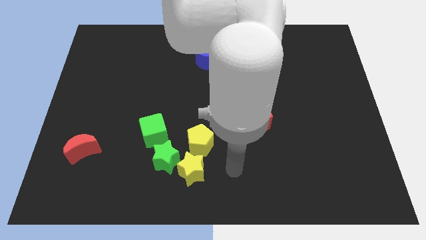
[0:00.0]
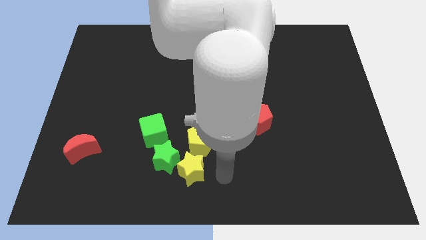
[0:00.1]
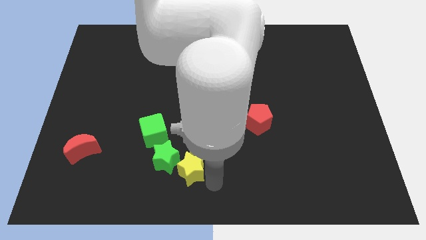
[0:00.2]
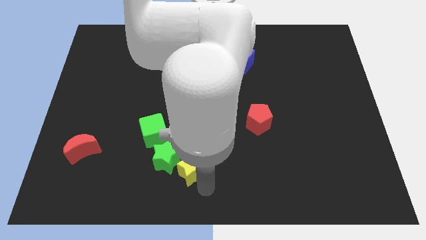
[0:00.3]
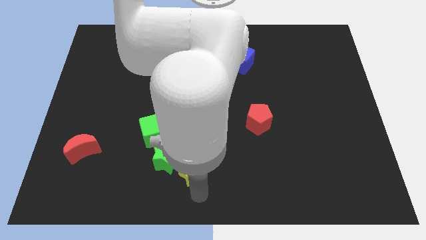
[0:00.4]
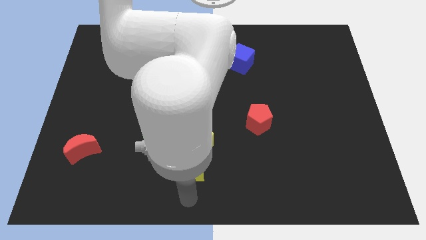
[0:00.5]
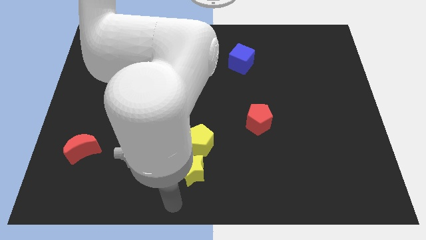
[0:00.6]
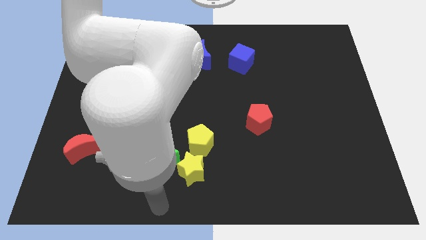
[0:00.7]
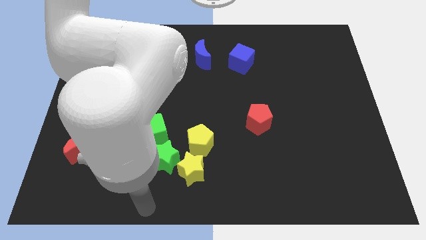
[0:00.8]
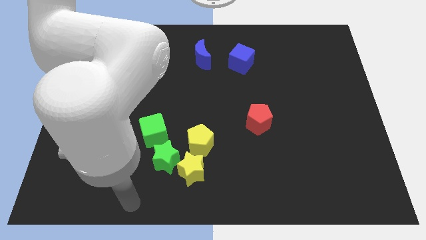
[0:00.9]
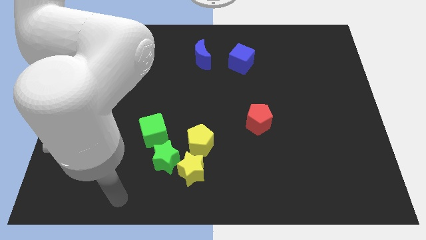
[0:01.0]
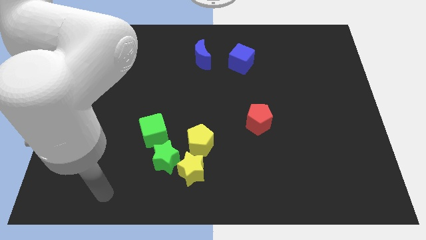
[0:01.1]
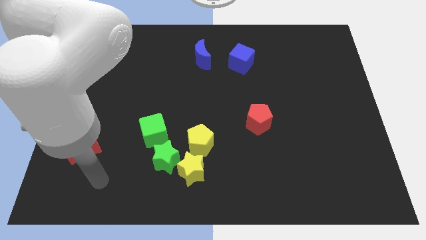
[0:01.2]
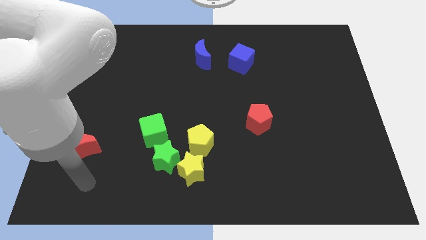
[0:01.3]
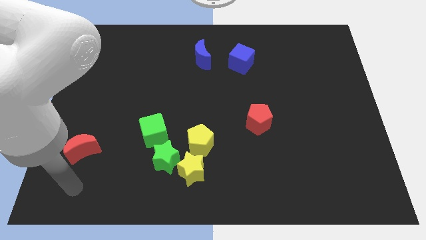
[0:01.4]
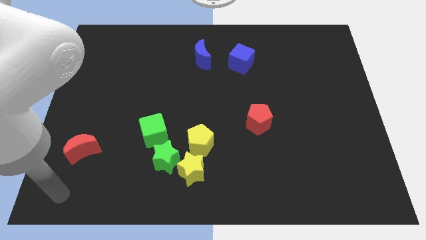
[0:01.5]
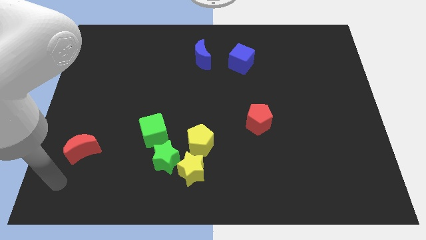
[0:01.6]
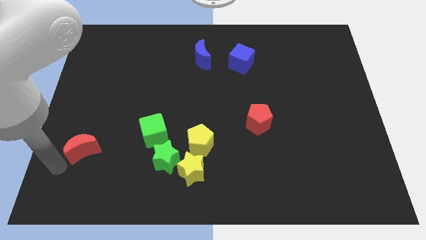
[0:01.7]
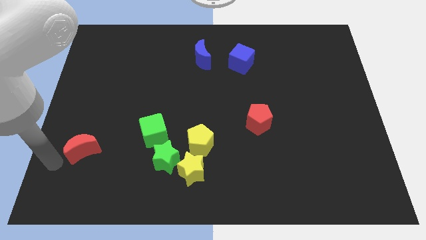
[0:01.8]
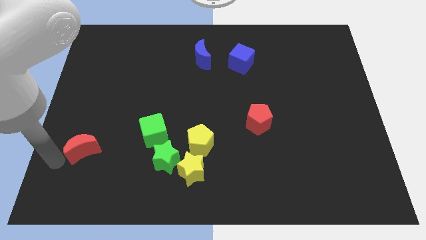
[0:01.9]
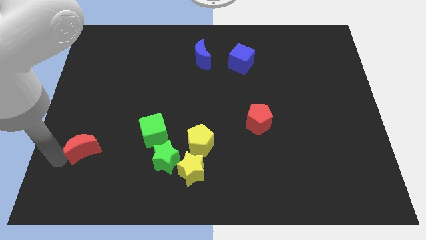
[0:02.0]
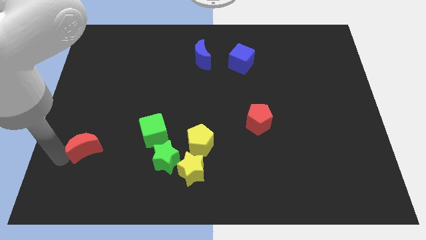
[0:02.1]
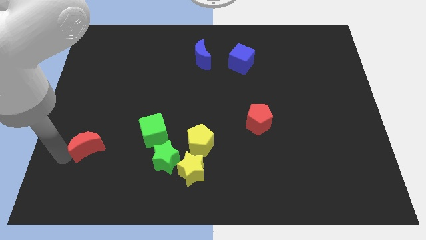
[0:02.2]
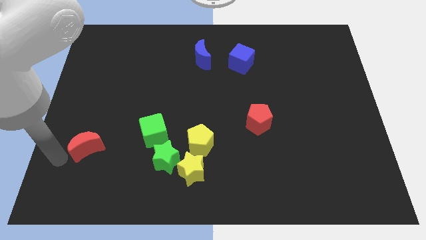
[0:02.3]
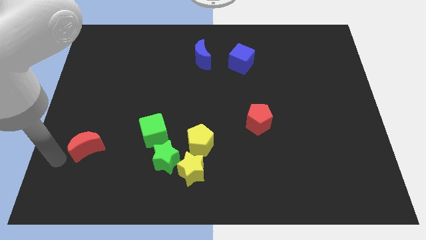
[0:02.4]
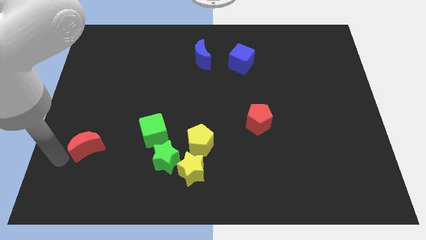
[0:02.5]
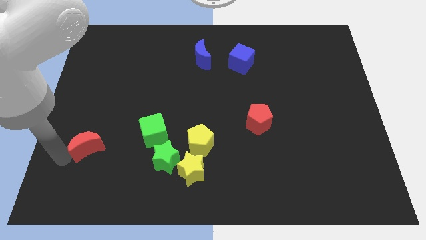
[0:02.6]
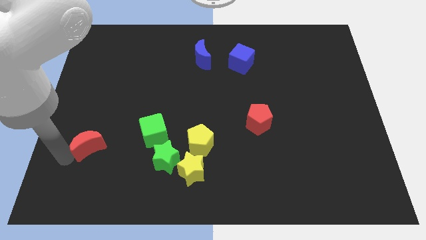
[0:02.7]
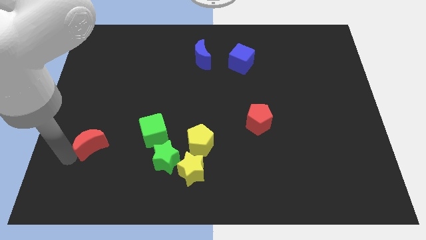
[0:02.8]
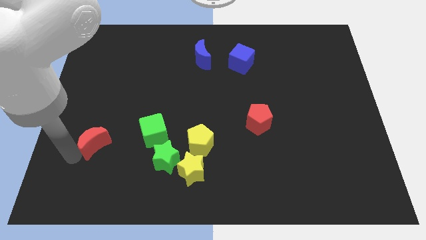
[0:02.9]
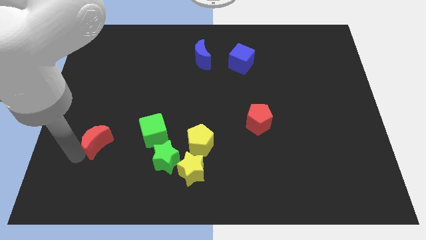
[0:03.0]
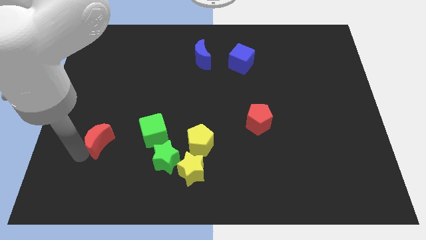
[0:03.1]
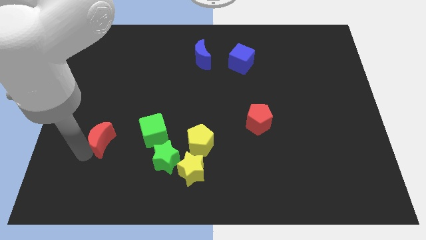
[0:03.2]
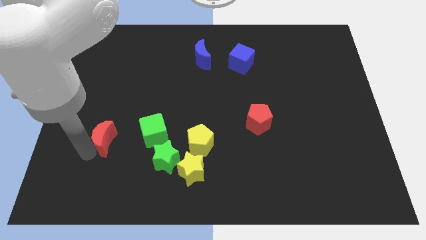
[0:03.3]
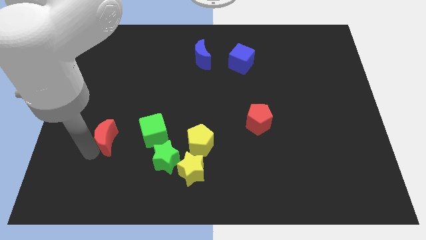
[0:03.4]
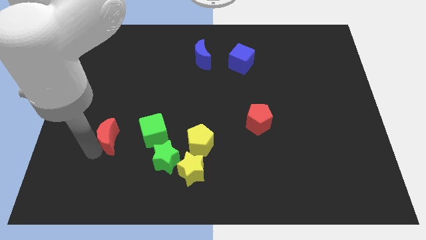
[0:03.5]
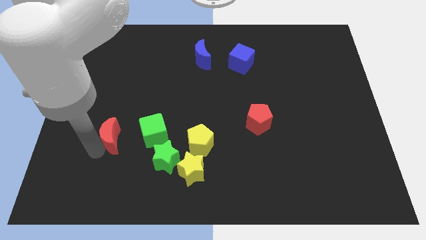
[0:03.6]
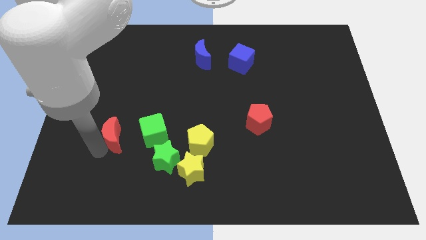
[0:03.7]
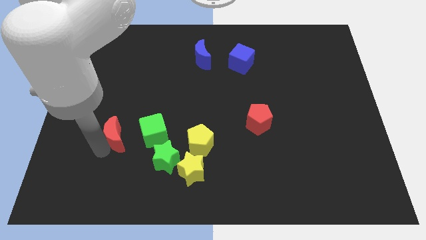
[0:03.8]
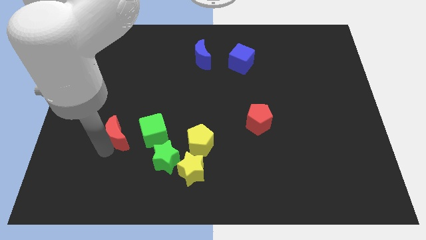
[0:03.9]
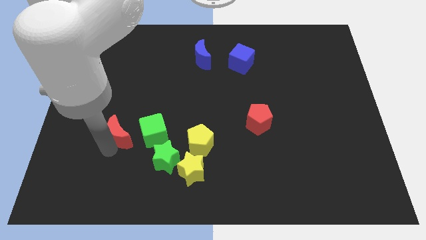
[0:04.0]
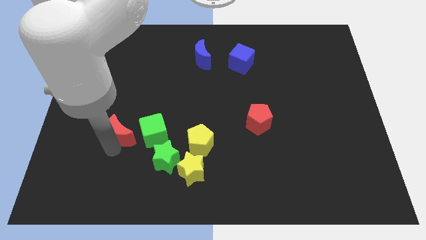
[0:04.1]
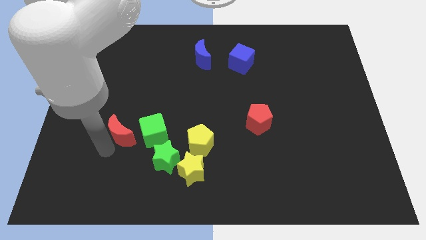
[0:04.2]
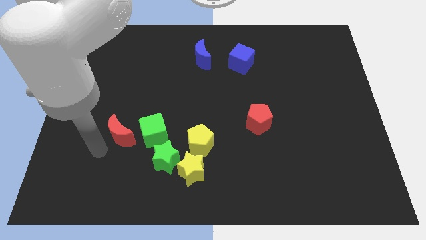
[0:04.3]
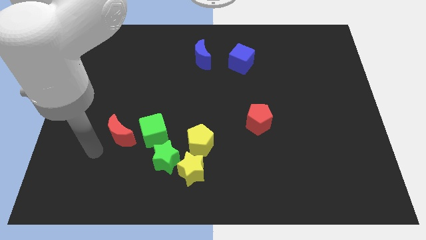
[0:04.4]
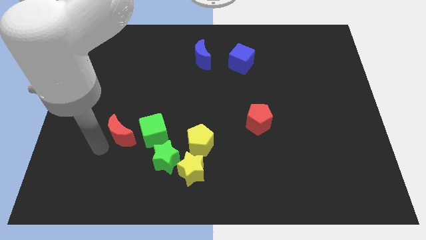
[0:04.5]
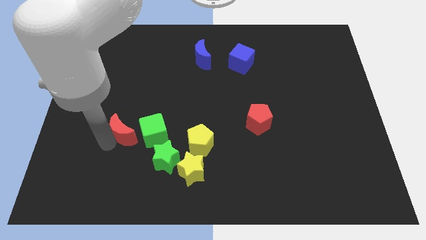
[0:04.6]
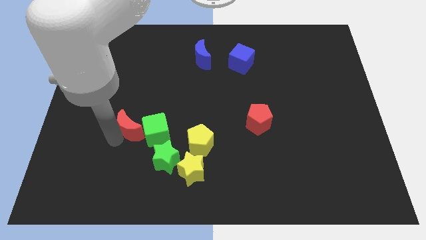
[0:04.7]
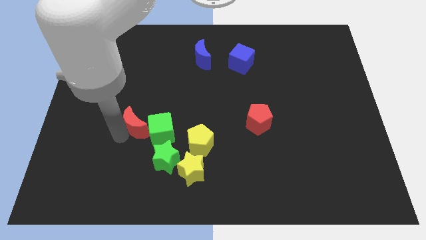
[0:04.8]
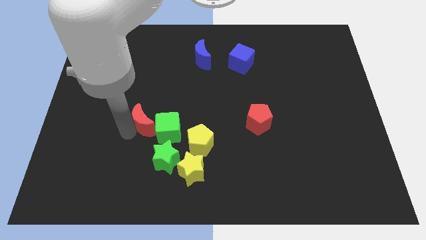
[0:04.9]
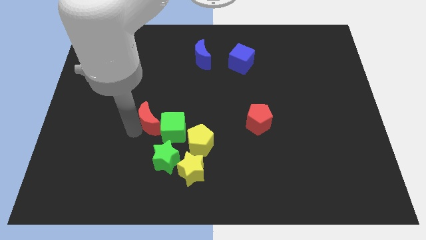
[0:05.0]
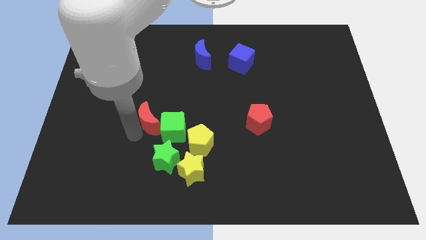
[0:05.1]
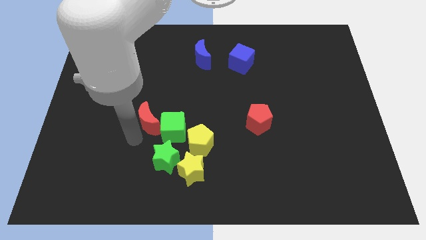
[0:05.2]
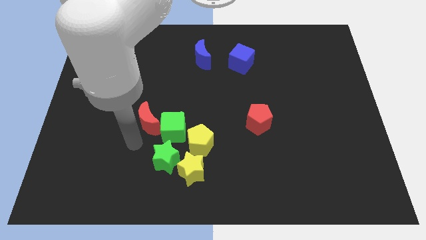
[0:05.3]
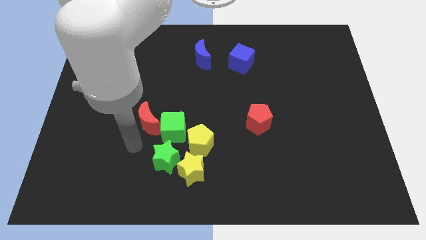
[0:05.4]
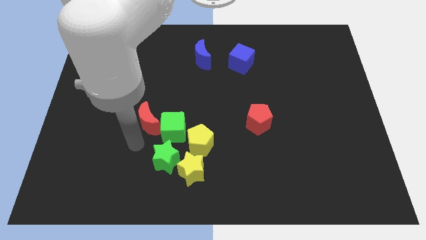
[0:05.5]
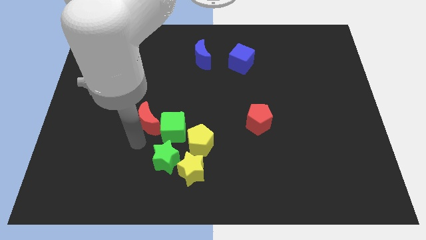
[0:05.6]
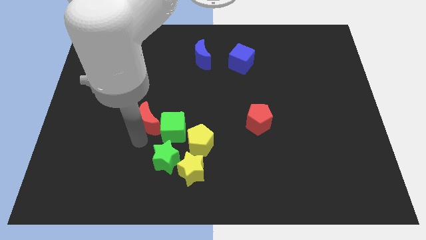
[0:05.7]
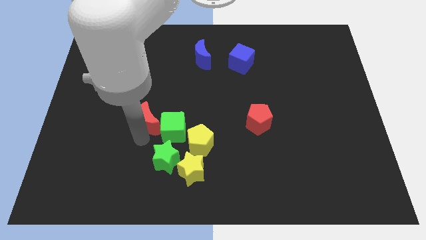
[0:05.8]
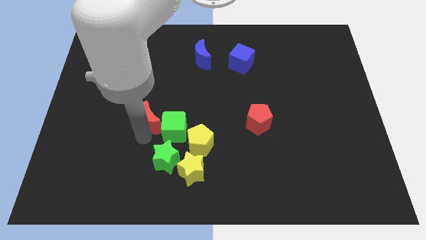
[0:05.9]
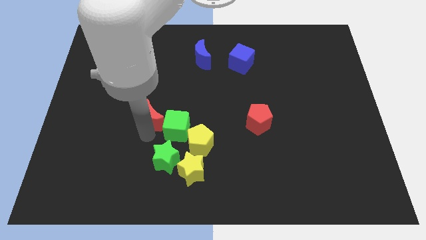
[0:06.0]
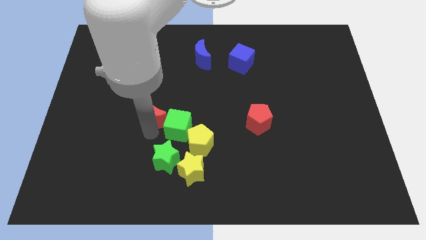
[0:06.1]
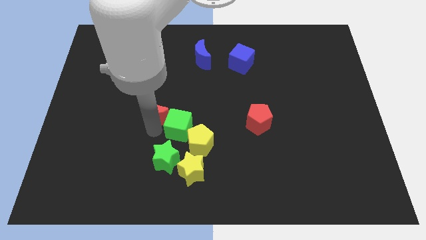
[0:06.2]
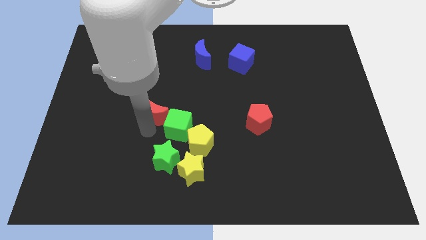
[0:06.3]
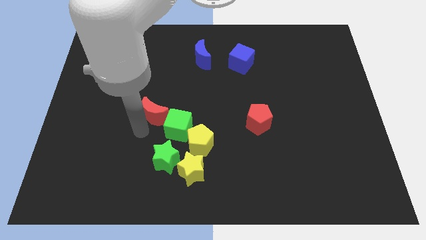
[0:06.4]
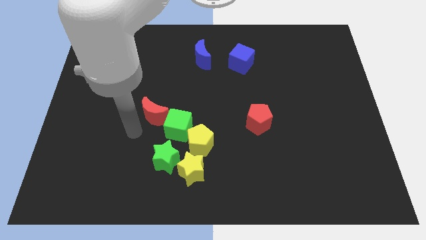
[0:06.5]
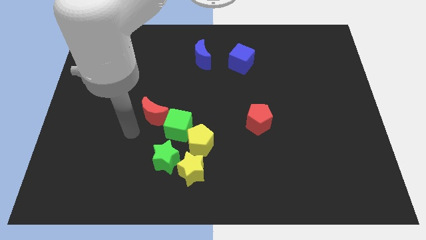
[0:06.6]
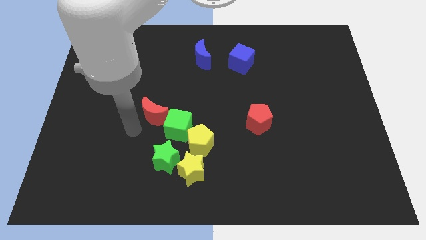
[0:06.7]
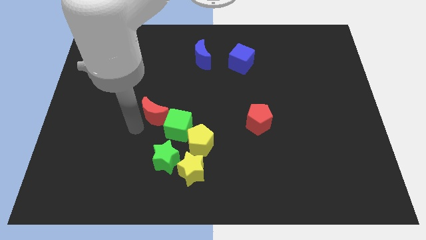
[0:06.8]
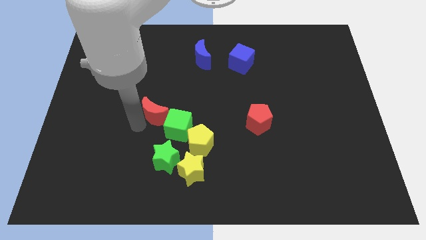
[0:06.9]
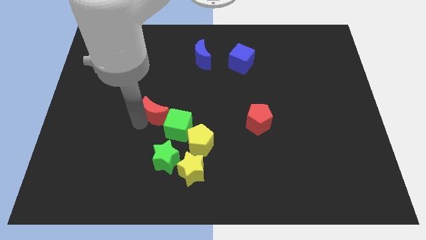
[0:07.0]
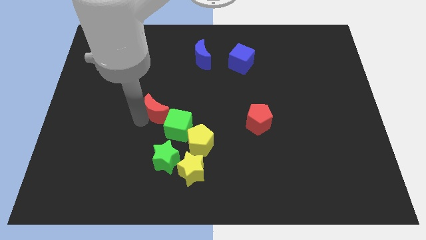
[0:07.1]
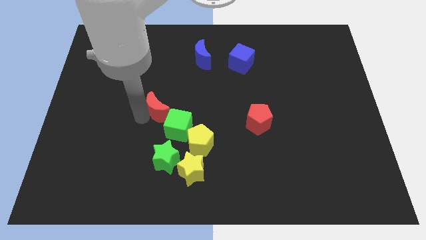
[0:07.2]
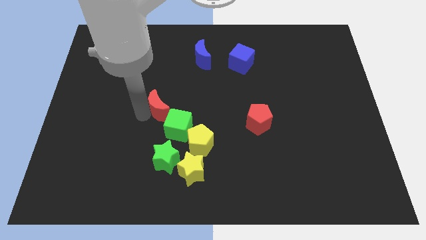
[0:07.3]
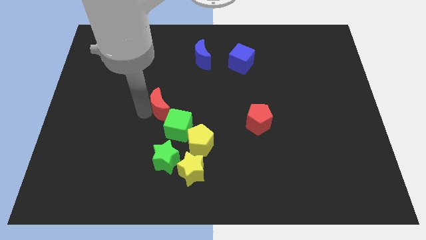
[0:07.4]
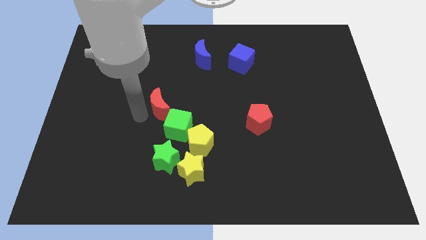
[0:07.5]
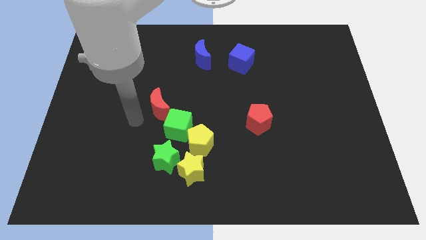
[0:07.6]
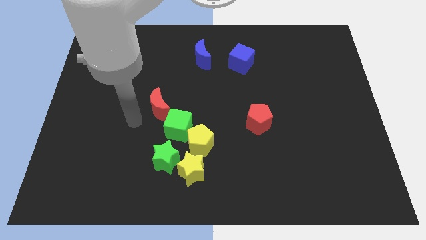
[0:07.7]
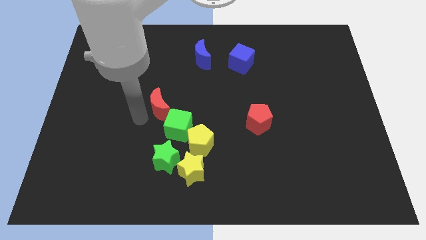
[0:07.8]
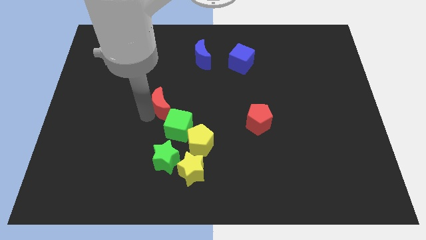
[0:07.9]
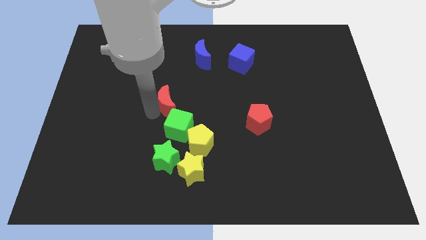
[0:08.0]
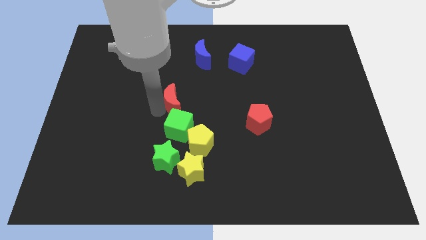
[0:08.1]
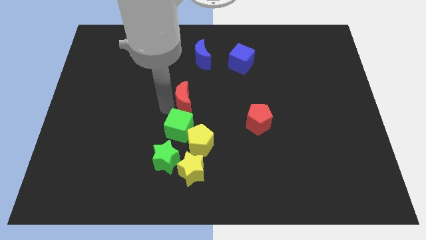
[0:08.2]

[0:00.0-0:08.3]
put the red moon to the bottom side of the blue moon
